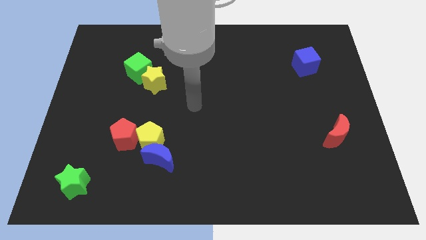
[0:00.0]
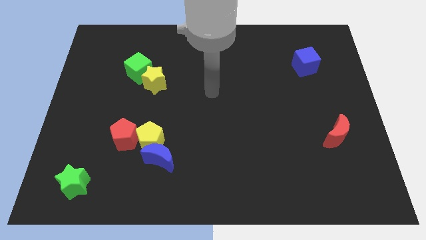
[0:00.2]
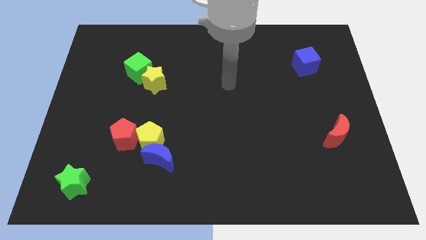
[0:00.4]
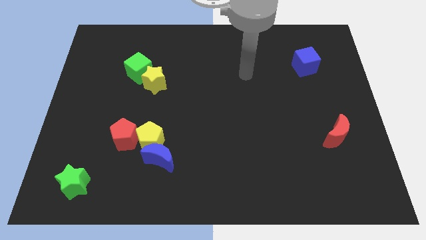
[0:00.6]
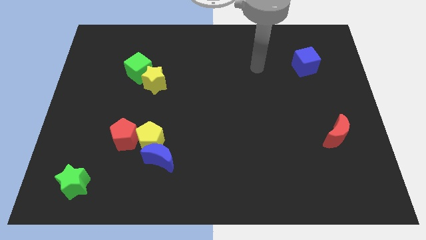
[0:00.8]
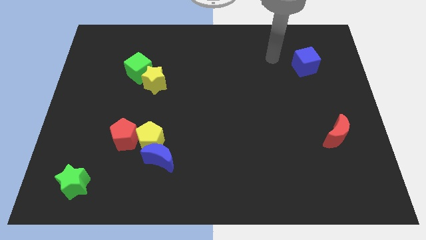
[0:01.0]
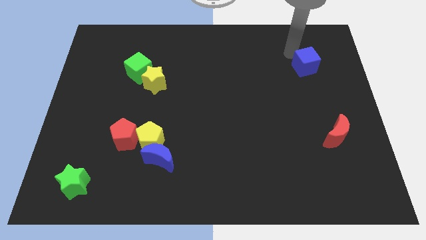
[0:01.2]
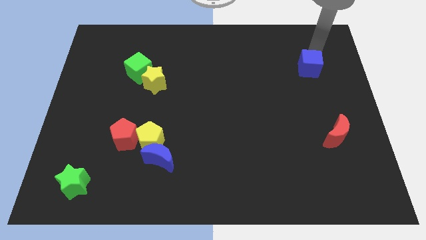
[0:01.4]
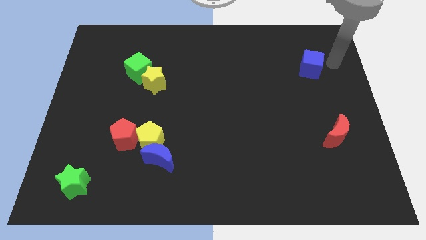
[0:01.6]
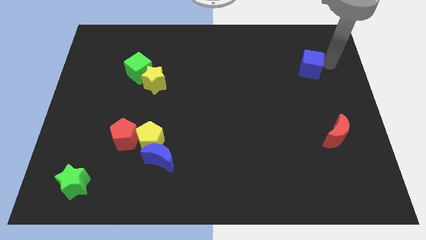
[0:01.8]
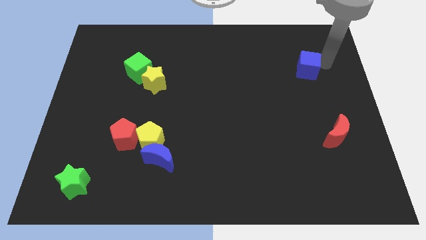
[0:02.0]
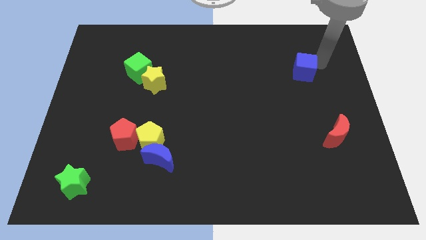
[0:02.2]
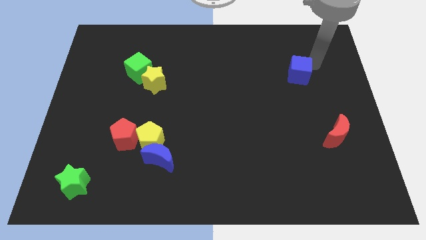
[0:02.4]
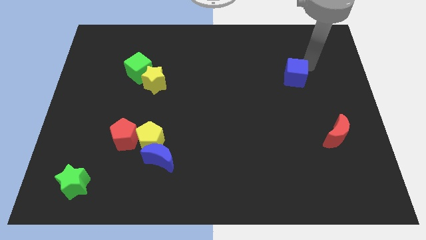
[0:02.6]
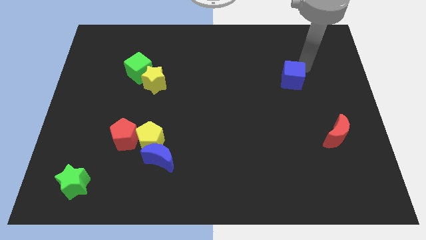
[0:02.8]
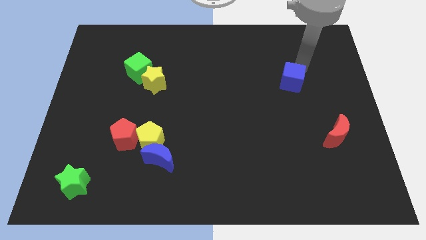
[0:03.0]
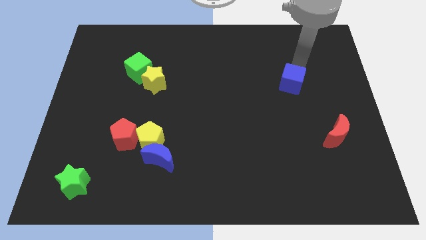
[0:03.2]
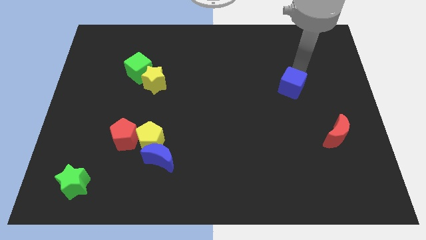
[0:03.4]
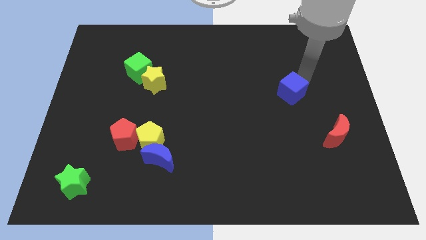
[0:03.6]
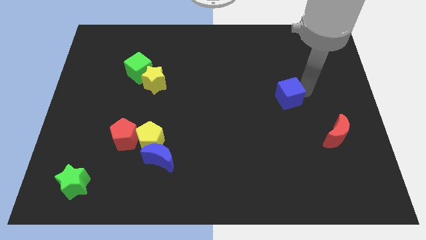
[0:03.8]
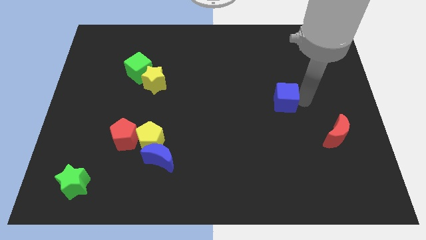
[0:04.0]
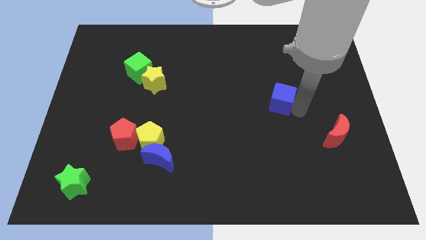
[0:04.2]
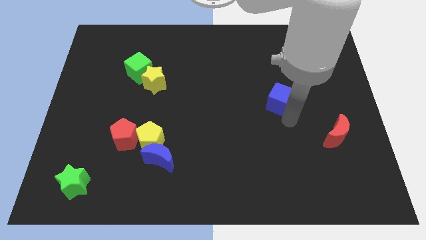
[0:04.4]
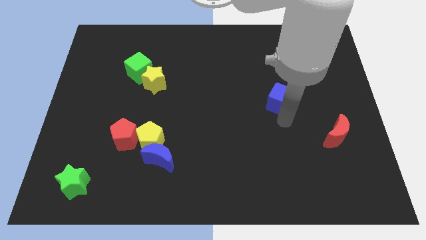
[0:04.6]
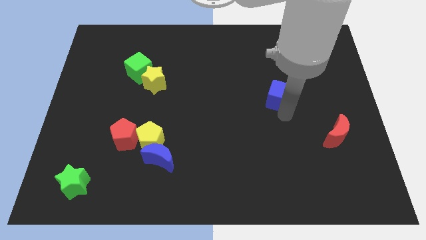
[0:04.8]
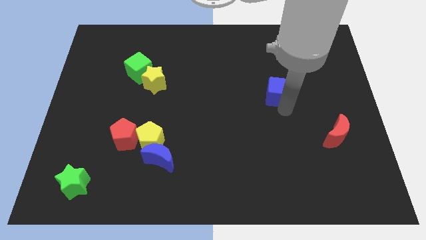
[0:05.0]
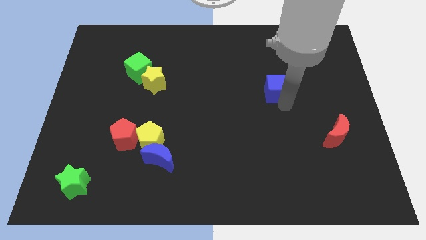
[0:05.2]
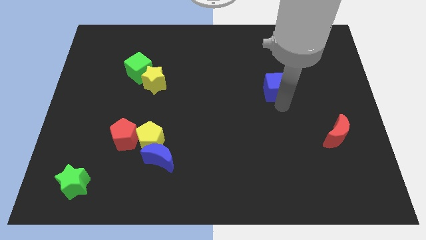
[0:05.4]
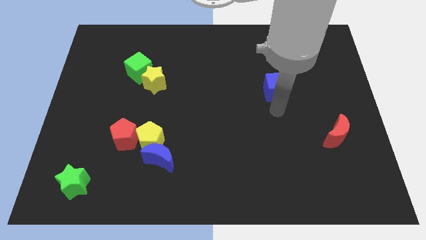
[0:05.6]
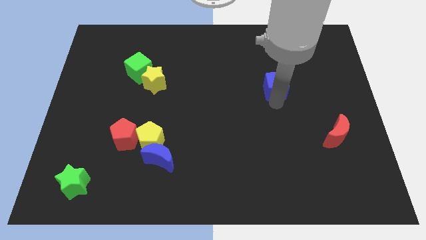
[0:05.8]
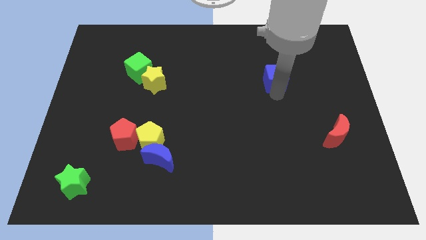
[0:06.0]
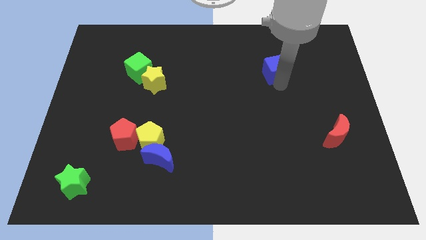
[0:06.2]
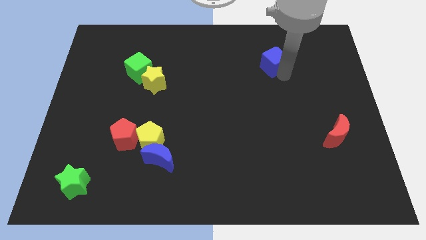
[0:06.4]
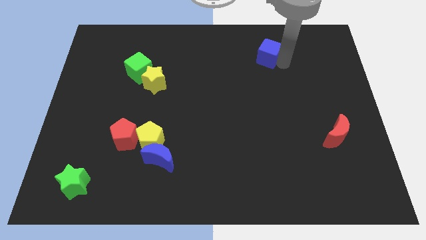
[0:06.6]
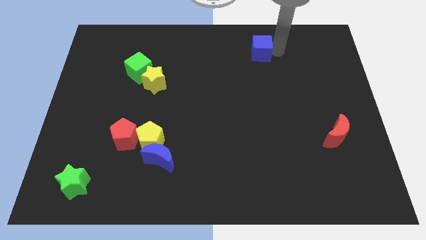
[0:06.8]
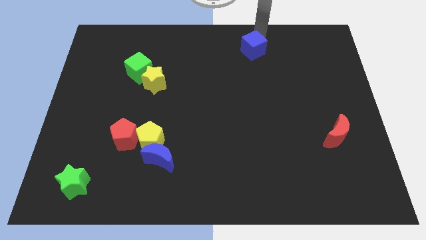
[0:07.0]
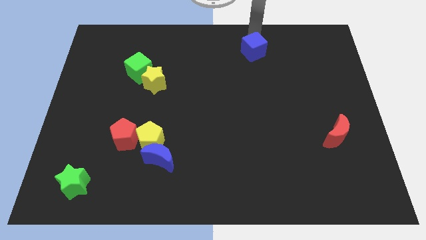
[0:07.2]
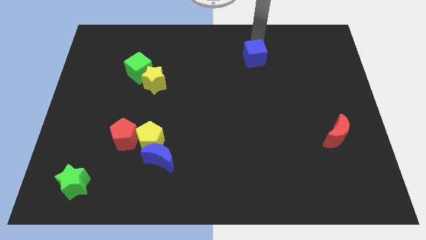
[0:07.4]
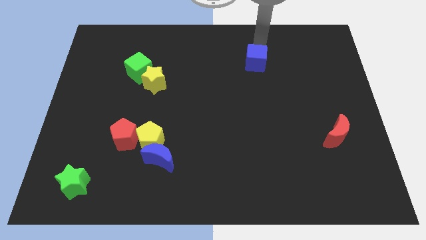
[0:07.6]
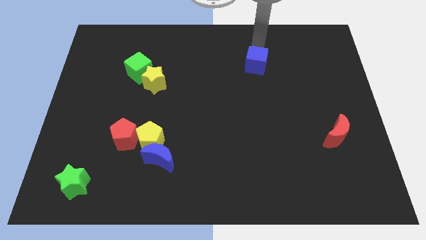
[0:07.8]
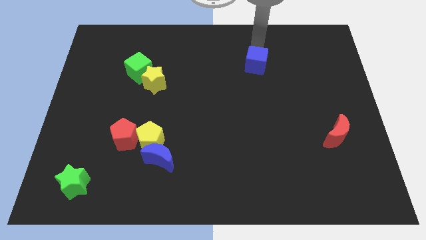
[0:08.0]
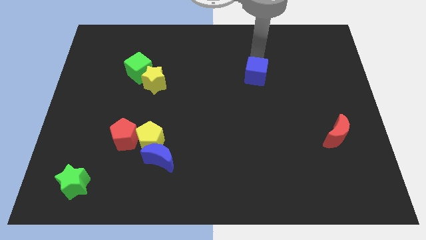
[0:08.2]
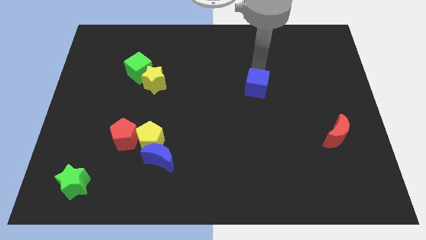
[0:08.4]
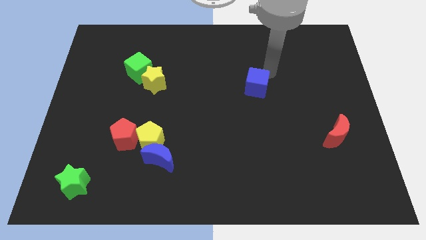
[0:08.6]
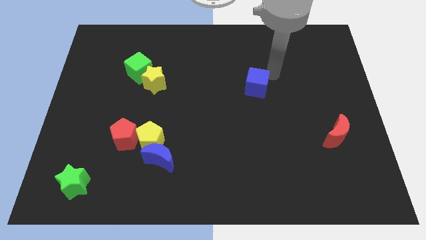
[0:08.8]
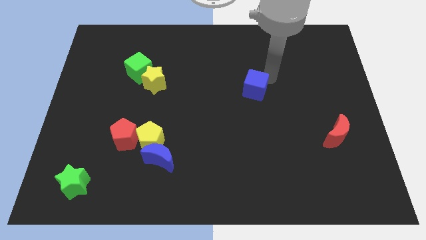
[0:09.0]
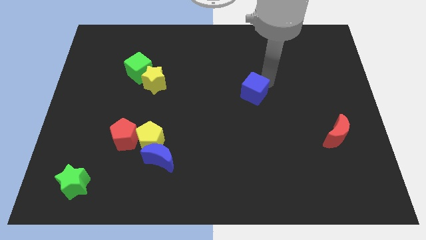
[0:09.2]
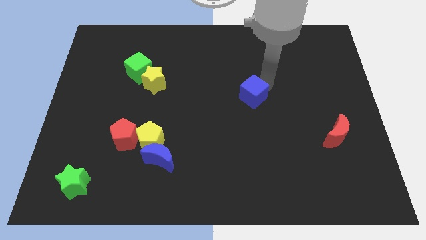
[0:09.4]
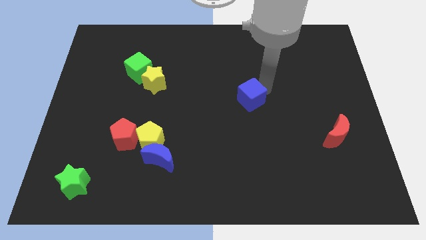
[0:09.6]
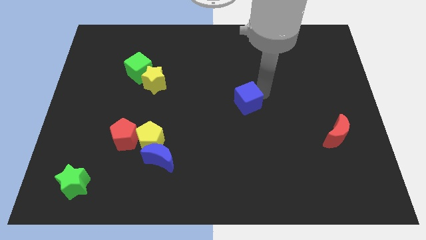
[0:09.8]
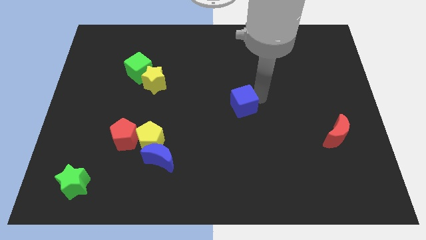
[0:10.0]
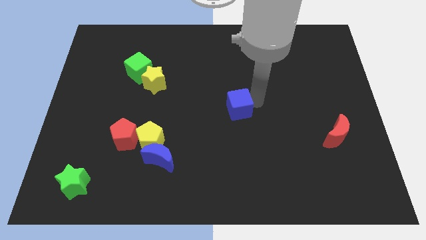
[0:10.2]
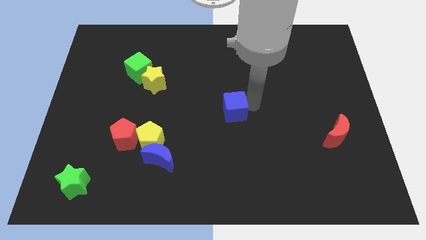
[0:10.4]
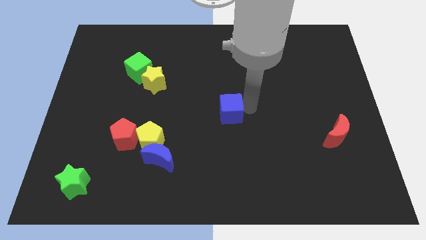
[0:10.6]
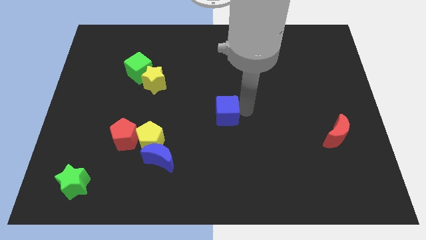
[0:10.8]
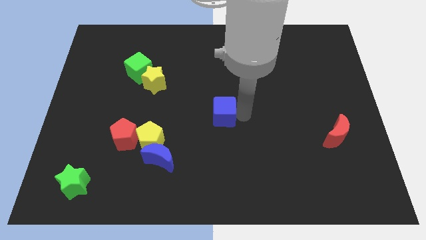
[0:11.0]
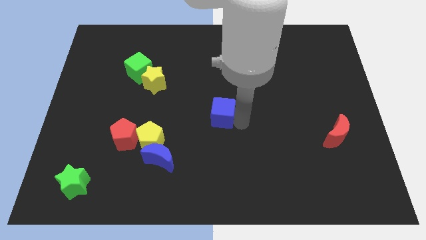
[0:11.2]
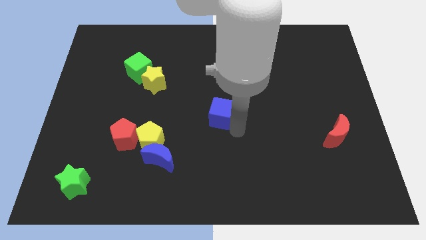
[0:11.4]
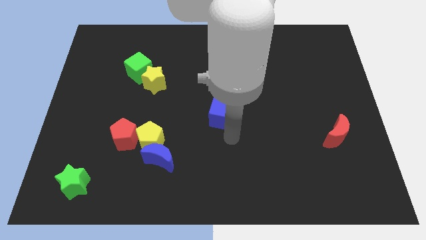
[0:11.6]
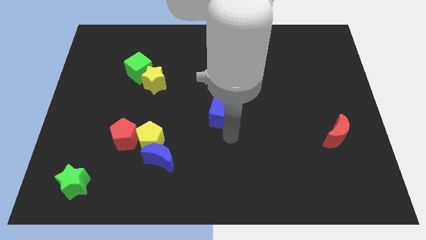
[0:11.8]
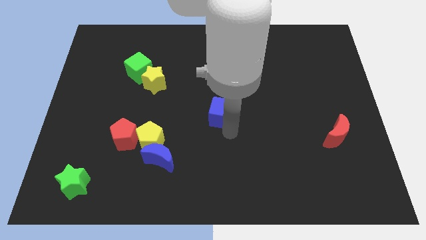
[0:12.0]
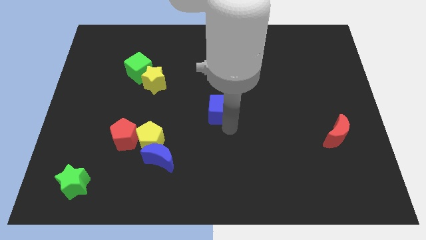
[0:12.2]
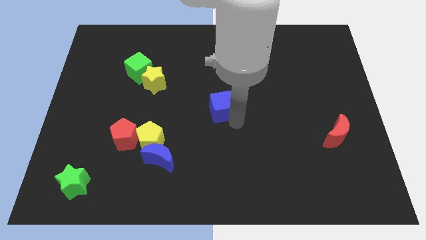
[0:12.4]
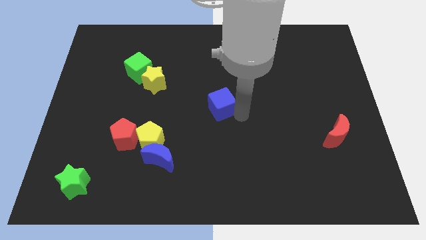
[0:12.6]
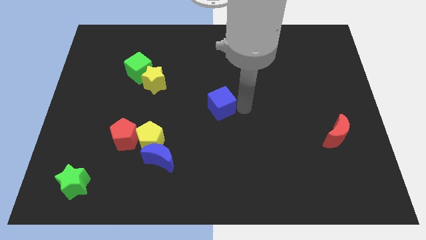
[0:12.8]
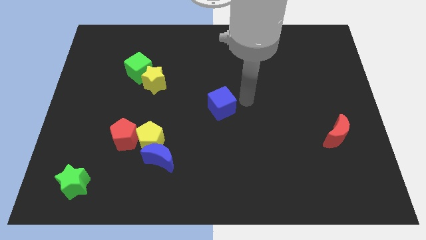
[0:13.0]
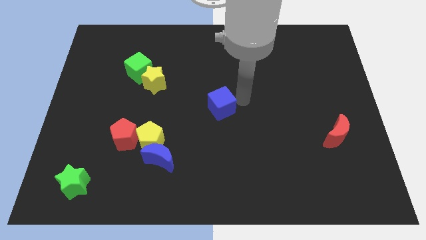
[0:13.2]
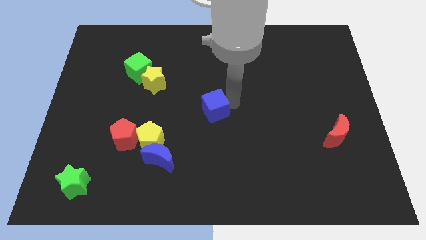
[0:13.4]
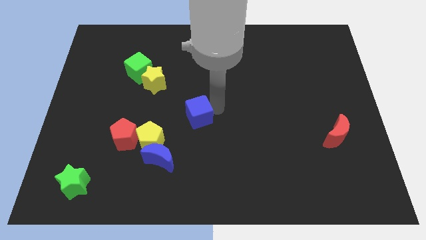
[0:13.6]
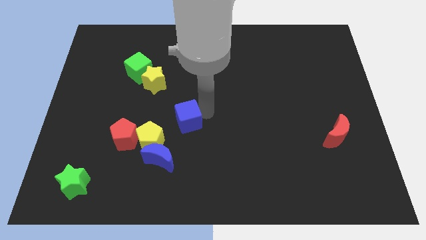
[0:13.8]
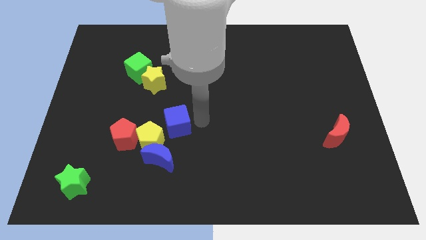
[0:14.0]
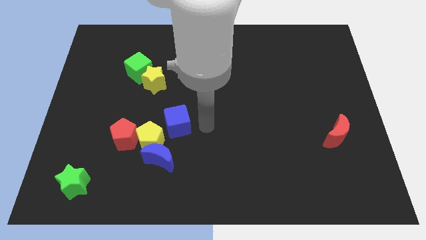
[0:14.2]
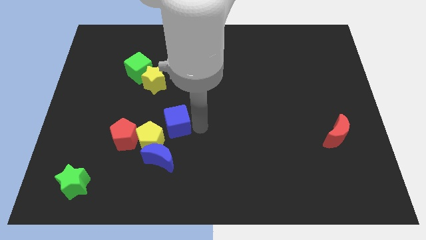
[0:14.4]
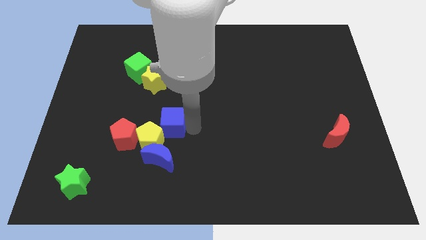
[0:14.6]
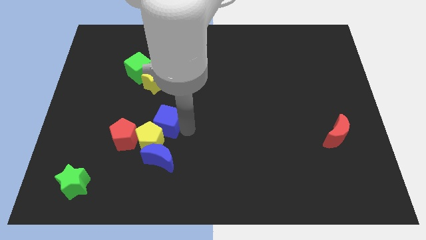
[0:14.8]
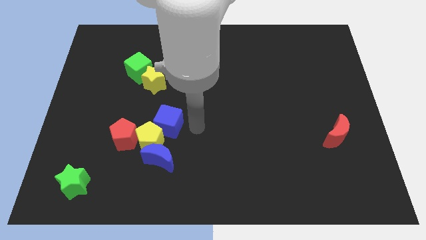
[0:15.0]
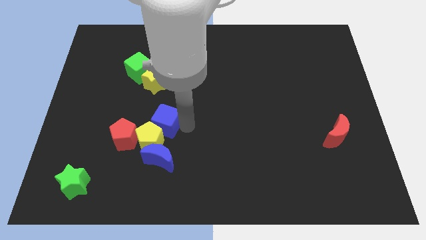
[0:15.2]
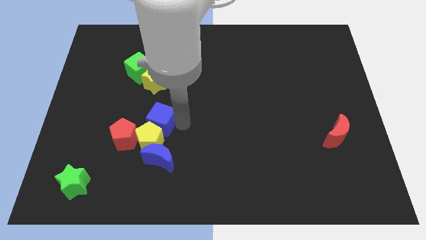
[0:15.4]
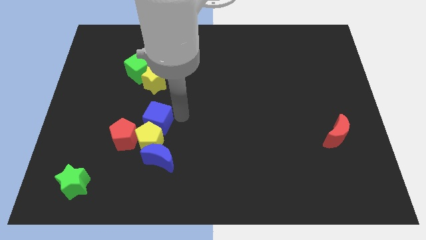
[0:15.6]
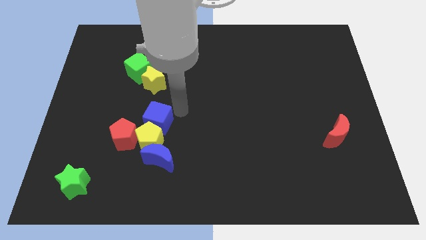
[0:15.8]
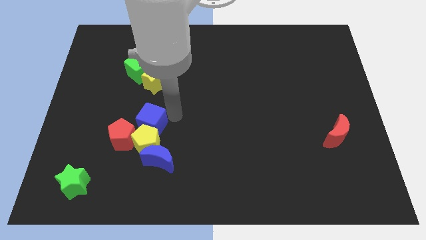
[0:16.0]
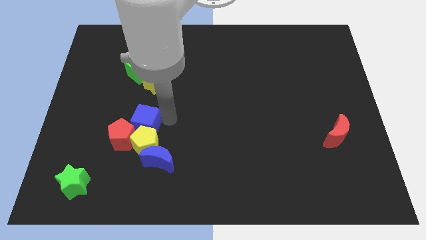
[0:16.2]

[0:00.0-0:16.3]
push the blue cube to the red pentagon
